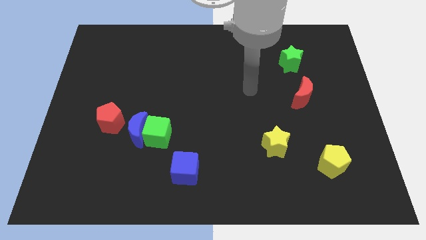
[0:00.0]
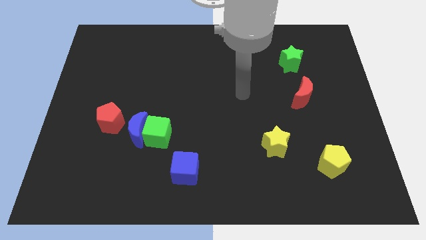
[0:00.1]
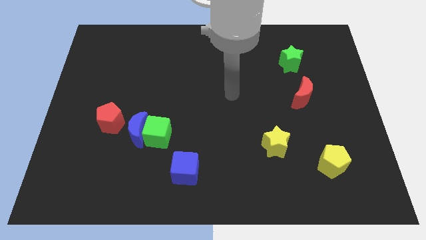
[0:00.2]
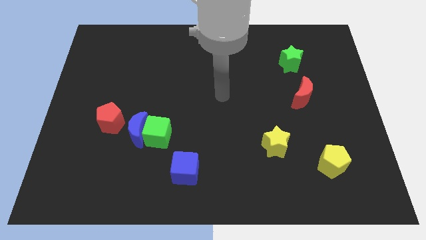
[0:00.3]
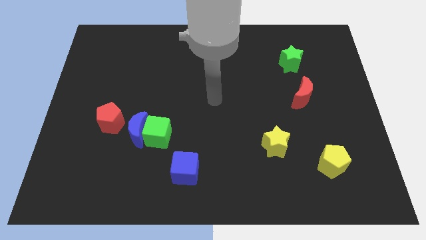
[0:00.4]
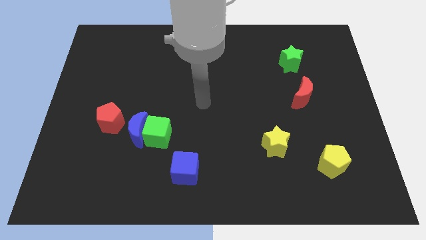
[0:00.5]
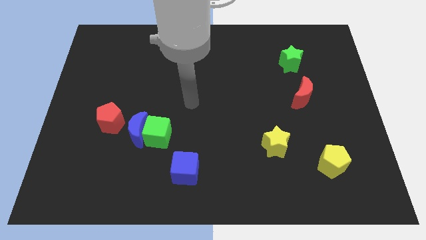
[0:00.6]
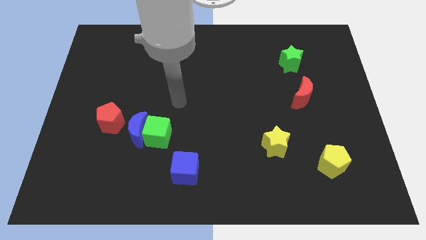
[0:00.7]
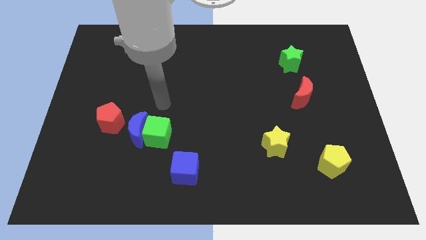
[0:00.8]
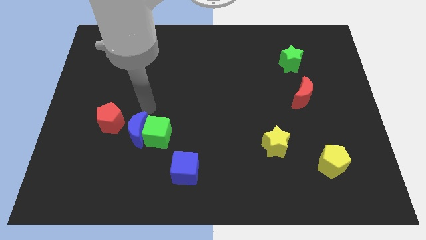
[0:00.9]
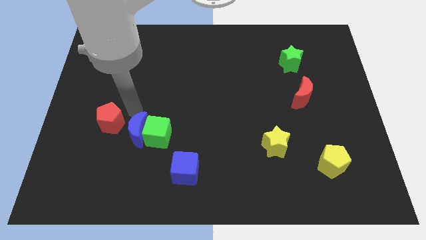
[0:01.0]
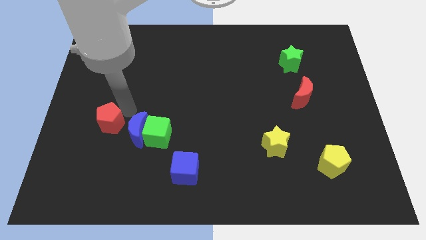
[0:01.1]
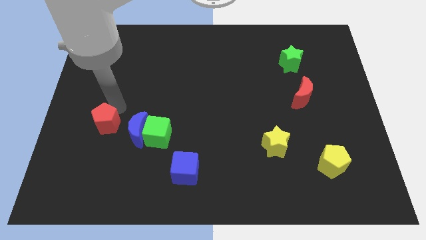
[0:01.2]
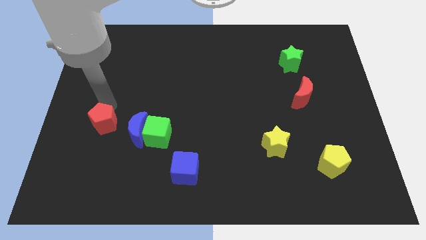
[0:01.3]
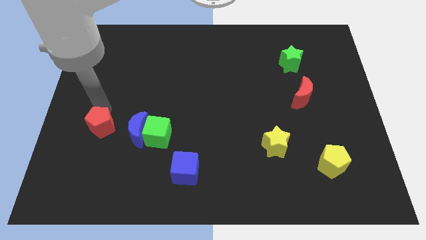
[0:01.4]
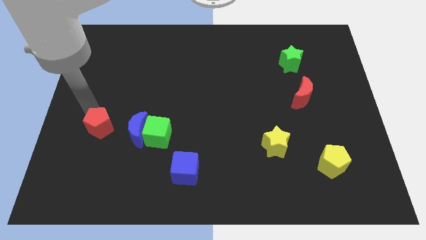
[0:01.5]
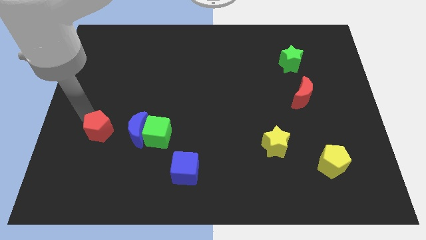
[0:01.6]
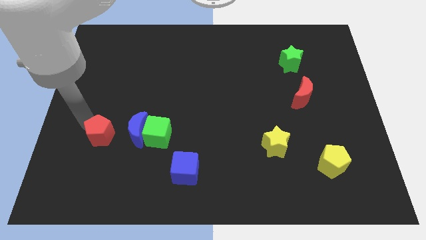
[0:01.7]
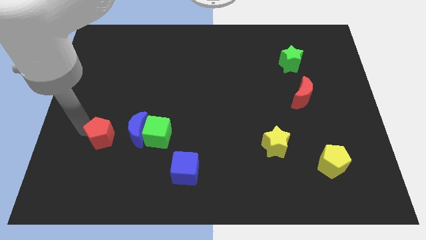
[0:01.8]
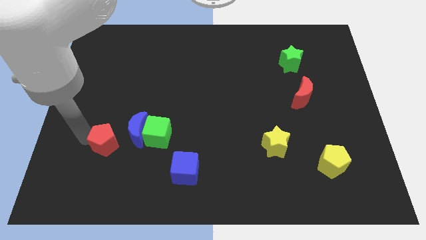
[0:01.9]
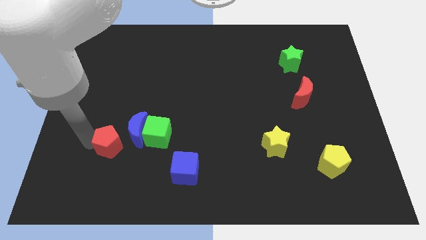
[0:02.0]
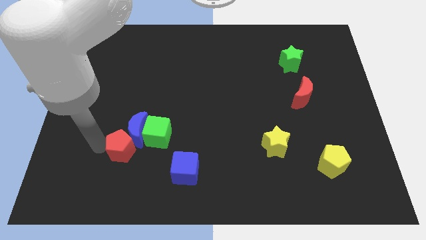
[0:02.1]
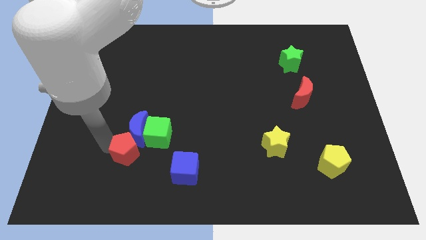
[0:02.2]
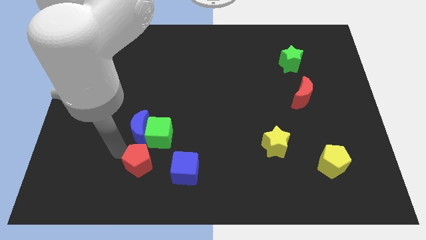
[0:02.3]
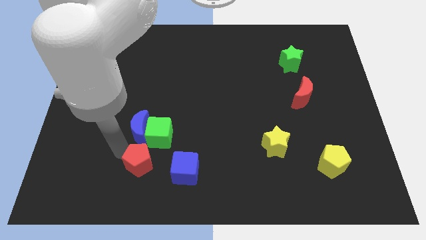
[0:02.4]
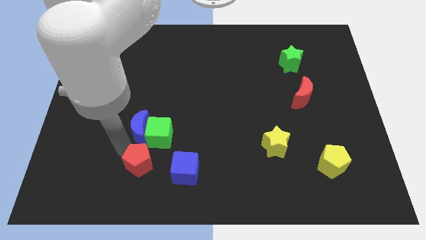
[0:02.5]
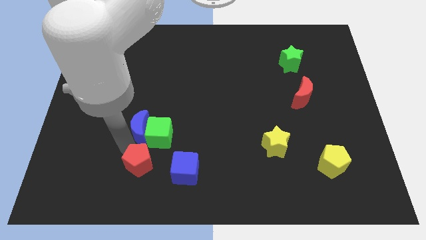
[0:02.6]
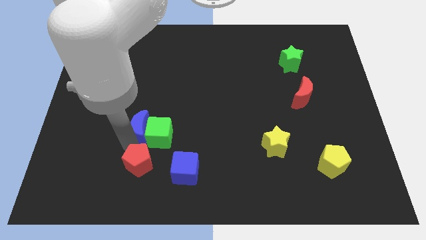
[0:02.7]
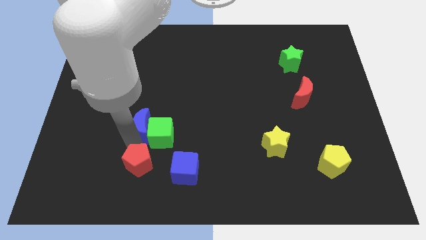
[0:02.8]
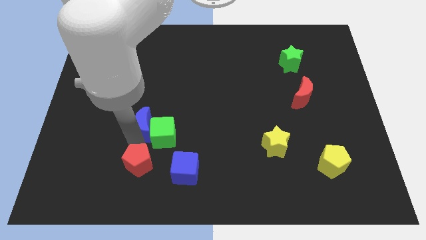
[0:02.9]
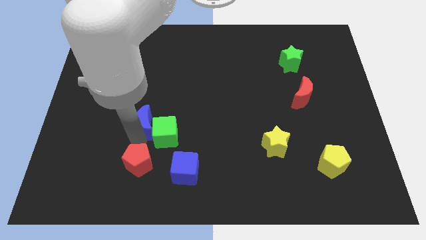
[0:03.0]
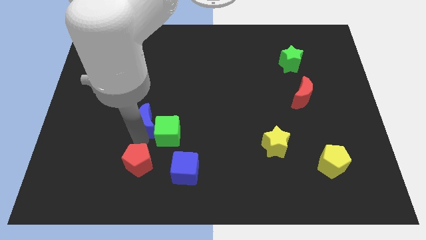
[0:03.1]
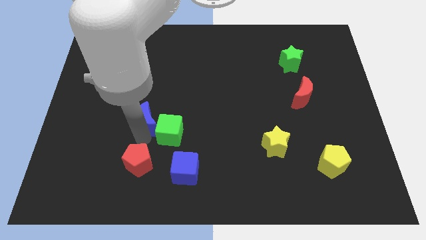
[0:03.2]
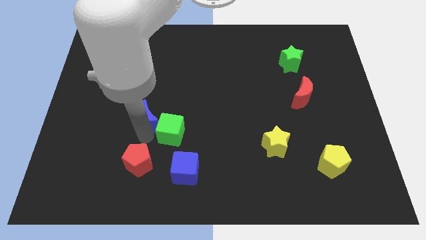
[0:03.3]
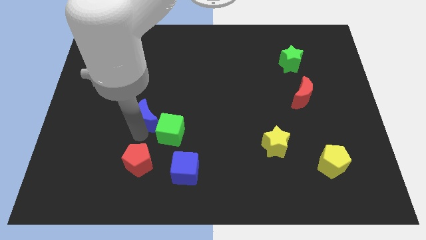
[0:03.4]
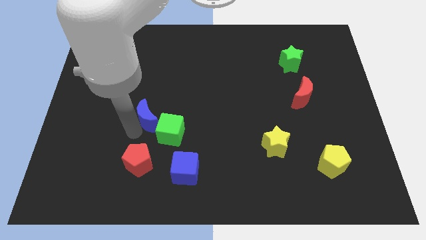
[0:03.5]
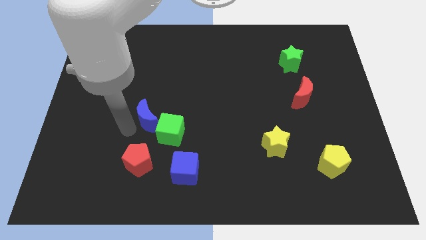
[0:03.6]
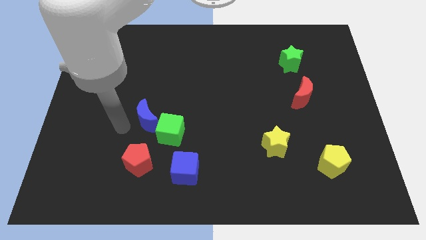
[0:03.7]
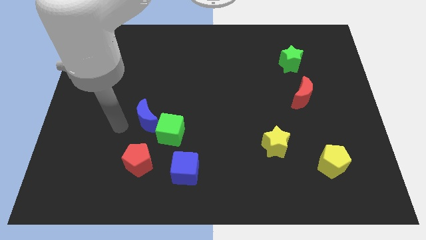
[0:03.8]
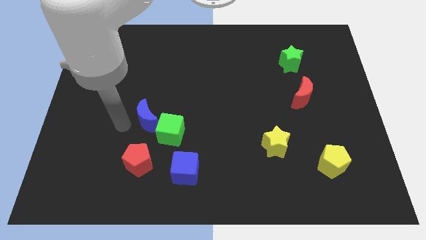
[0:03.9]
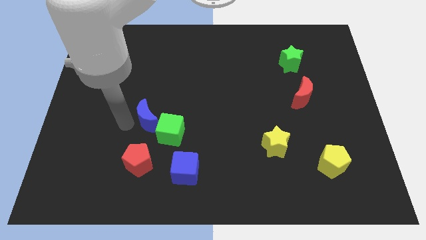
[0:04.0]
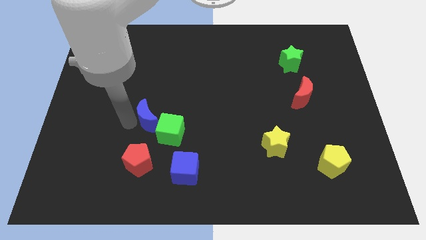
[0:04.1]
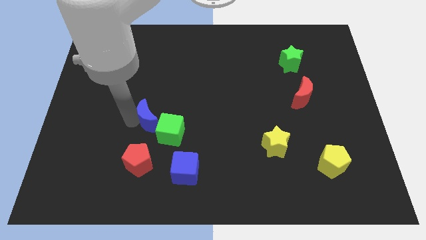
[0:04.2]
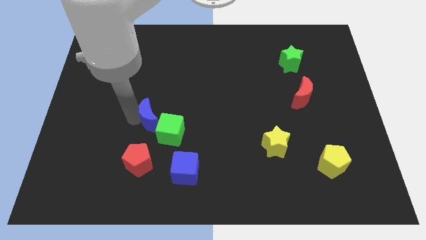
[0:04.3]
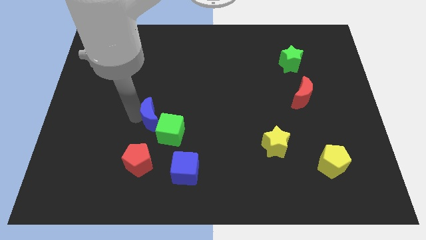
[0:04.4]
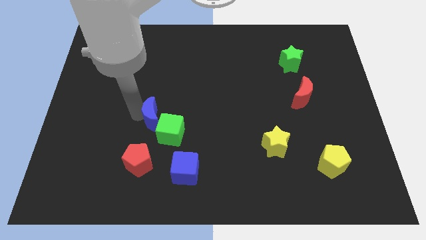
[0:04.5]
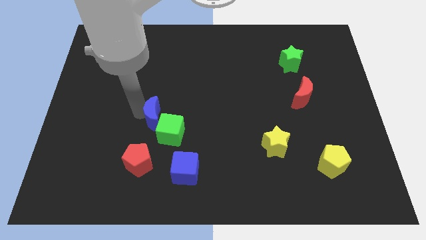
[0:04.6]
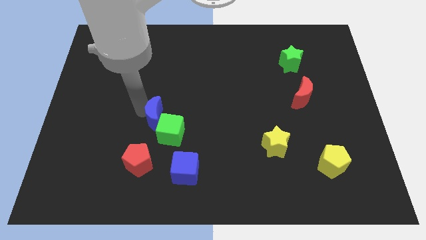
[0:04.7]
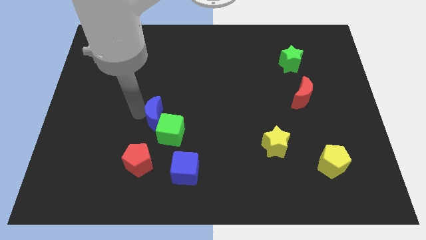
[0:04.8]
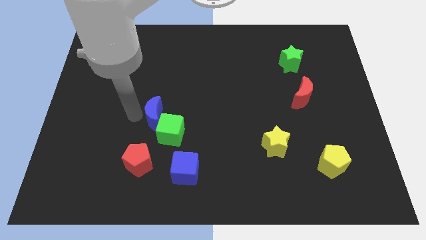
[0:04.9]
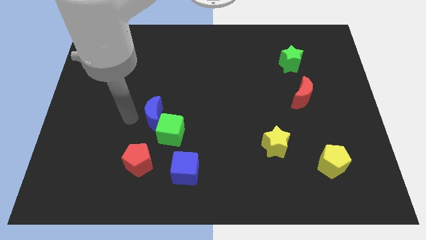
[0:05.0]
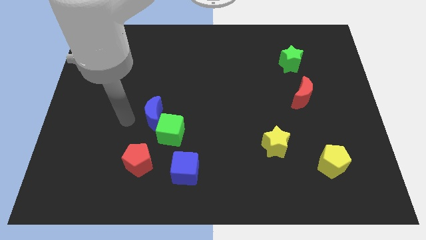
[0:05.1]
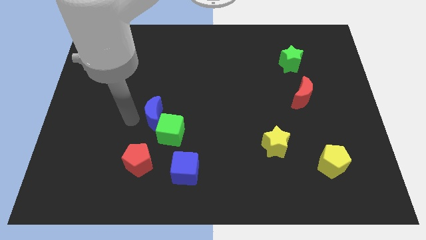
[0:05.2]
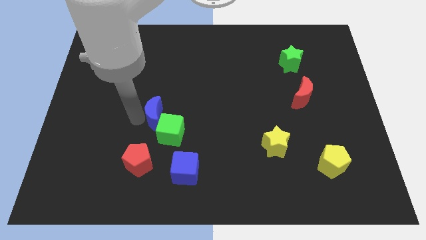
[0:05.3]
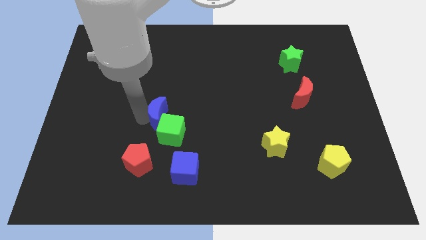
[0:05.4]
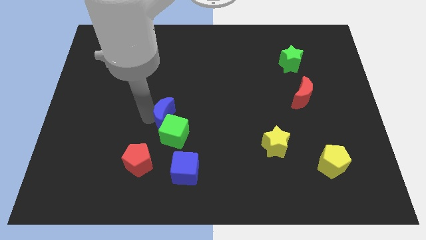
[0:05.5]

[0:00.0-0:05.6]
put the blue moon to the middle
